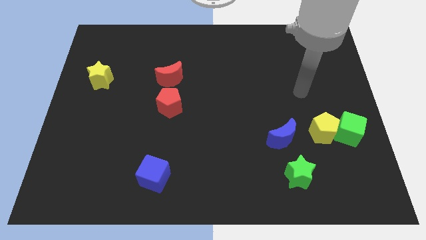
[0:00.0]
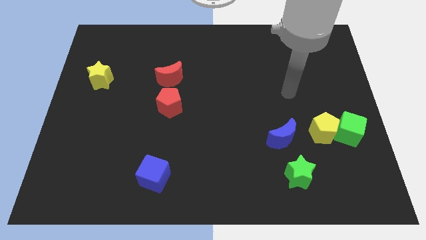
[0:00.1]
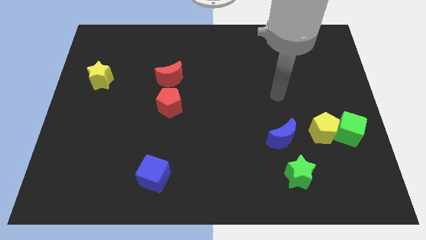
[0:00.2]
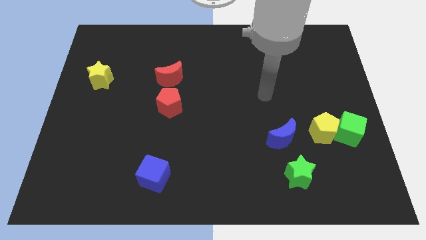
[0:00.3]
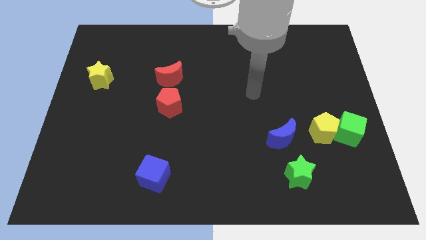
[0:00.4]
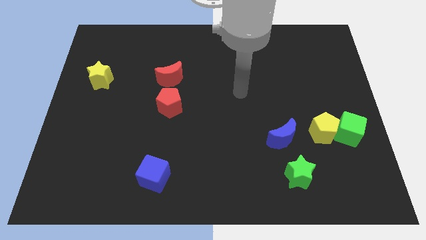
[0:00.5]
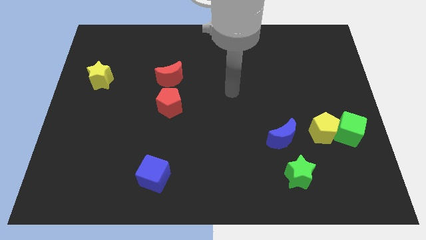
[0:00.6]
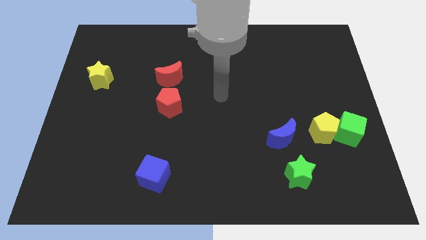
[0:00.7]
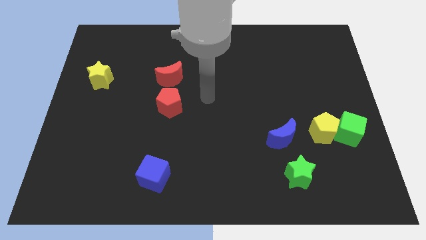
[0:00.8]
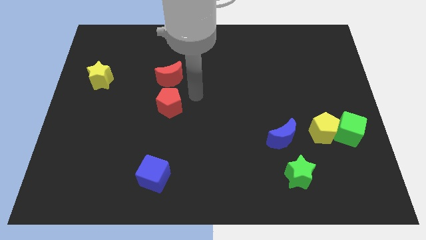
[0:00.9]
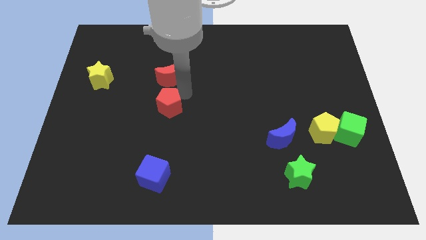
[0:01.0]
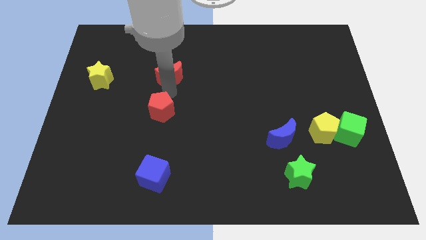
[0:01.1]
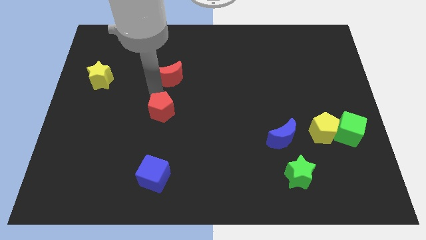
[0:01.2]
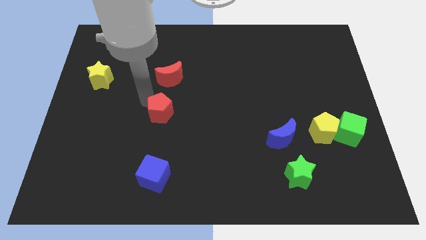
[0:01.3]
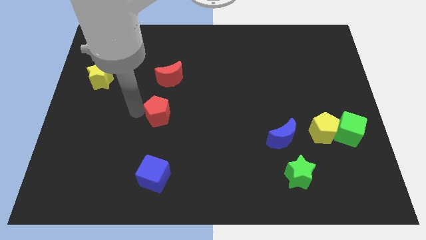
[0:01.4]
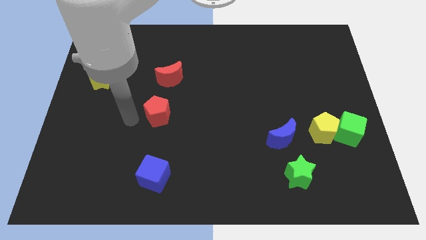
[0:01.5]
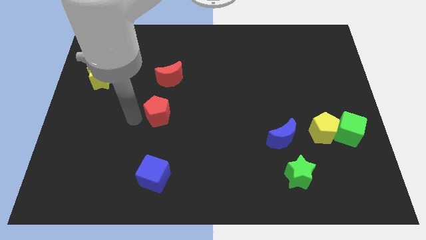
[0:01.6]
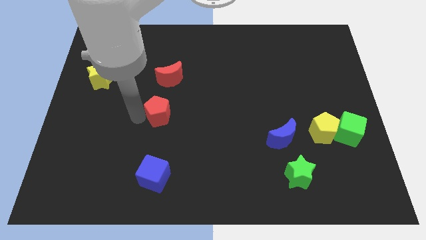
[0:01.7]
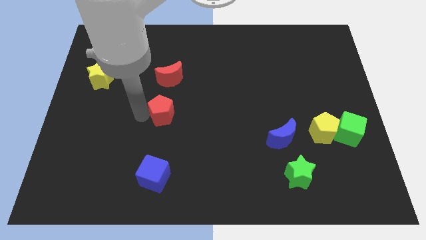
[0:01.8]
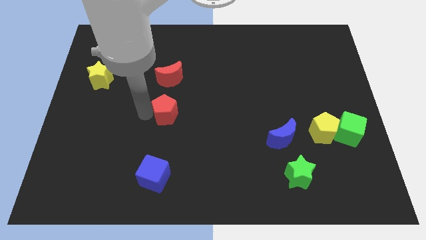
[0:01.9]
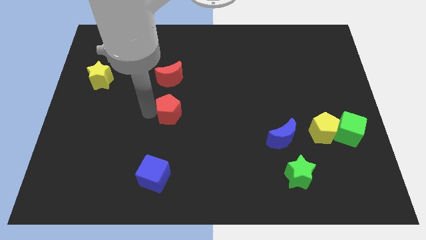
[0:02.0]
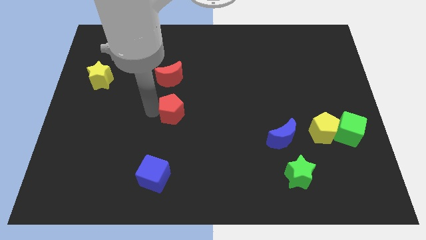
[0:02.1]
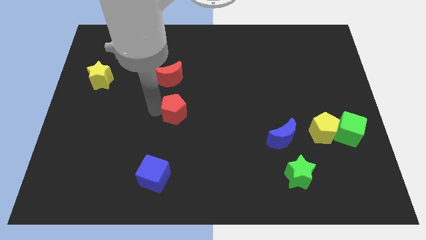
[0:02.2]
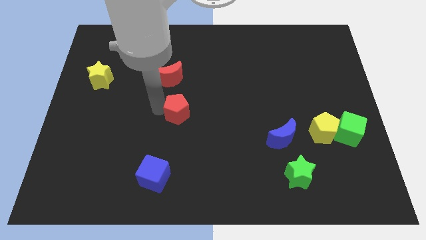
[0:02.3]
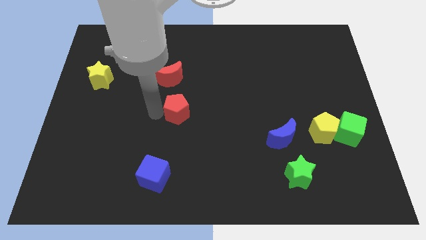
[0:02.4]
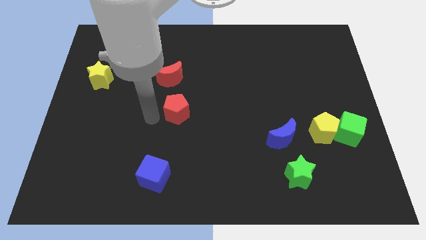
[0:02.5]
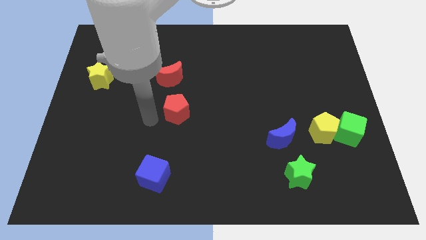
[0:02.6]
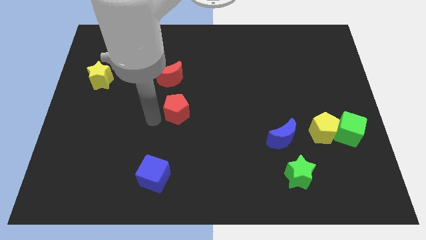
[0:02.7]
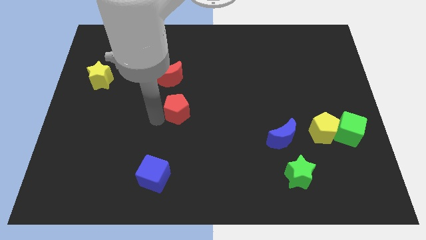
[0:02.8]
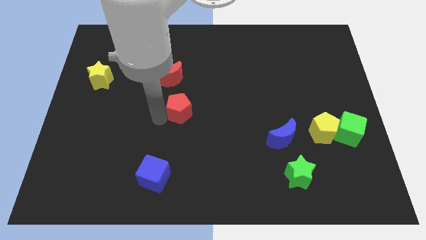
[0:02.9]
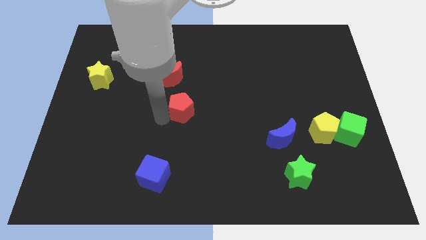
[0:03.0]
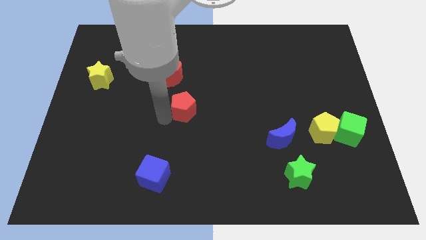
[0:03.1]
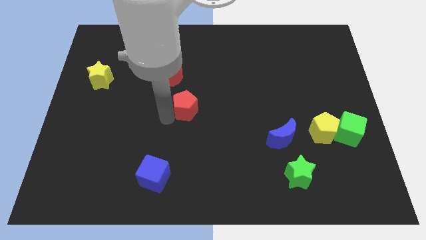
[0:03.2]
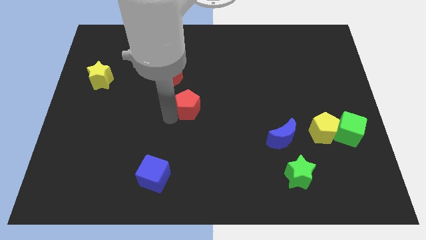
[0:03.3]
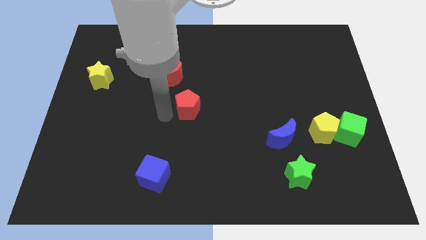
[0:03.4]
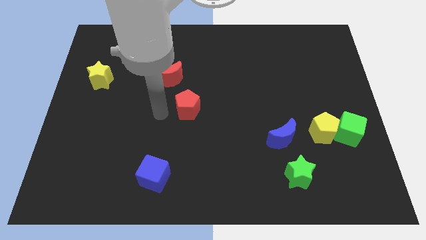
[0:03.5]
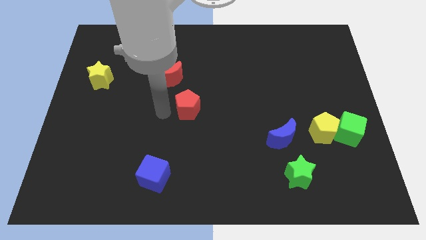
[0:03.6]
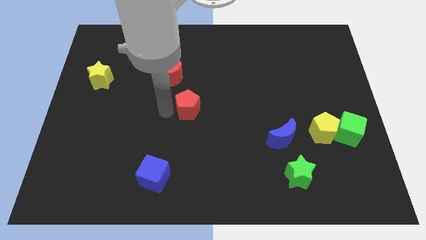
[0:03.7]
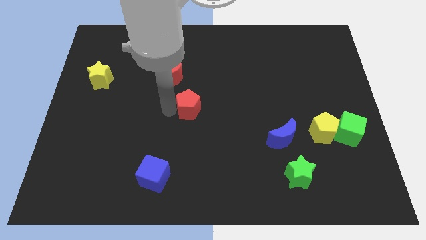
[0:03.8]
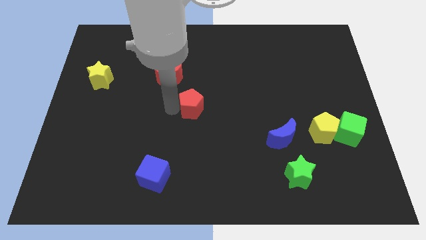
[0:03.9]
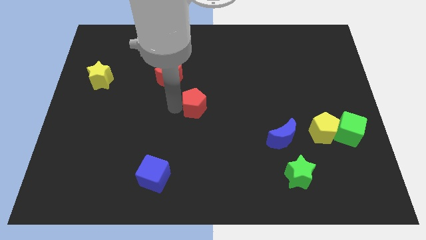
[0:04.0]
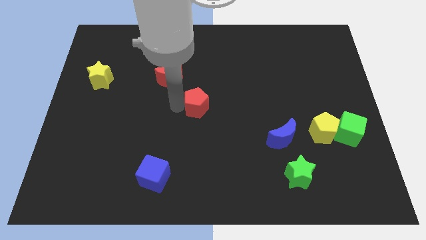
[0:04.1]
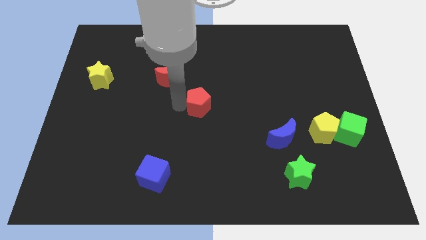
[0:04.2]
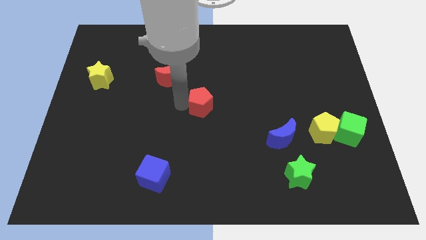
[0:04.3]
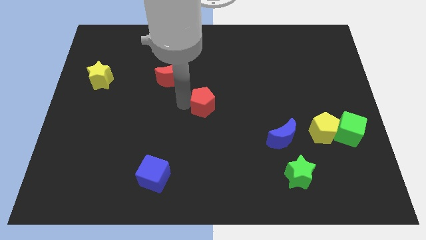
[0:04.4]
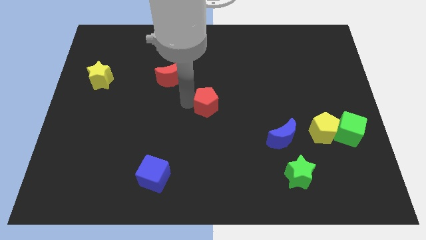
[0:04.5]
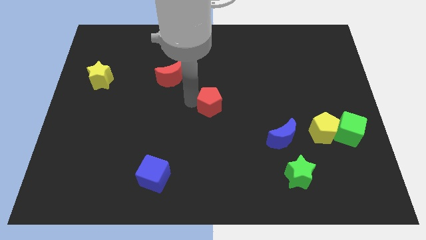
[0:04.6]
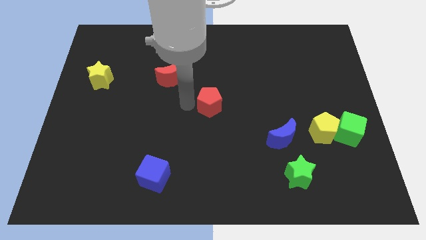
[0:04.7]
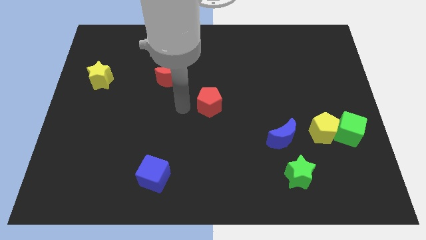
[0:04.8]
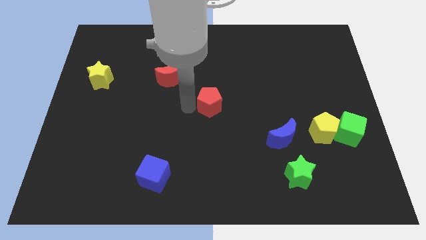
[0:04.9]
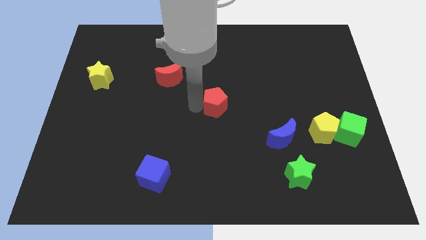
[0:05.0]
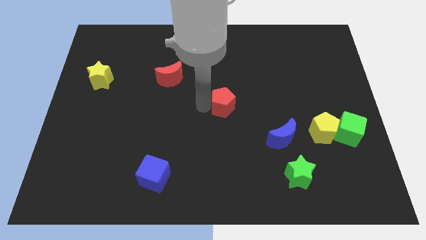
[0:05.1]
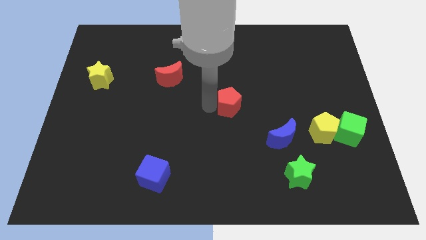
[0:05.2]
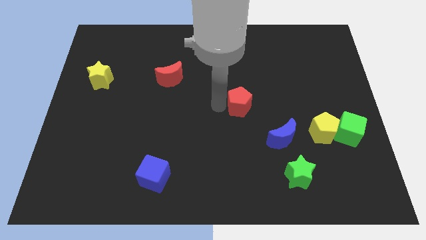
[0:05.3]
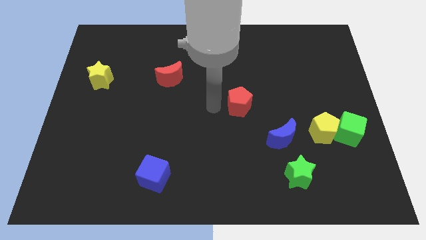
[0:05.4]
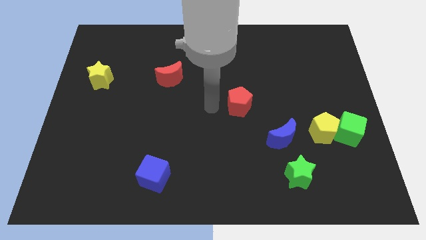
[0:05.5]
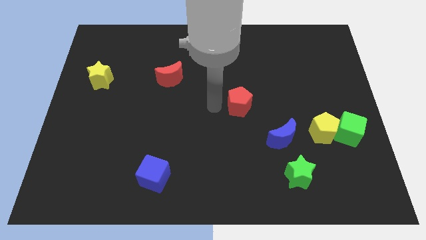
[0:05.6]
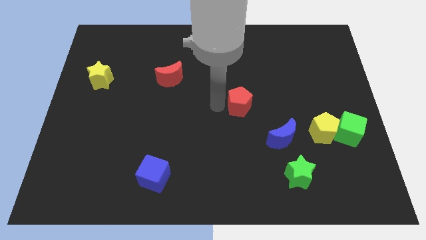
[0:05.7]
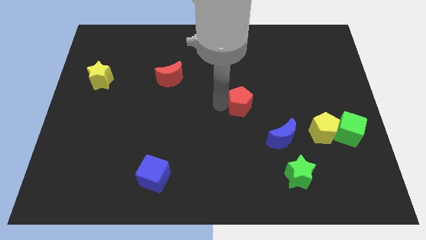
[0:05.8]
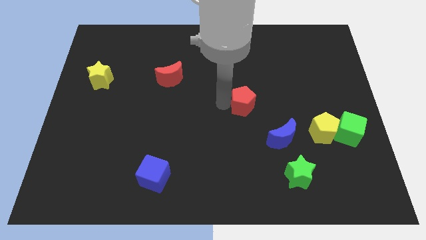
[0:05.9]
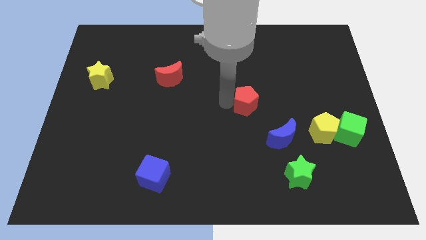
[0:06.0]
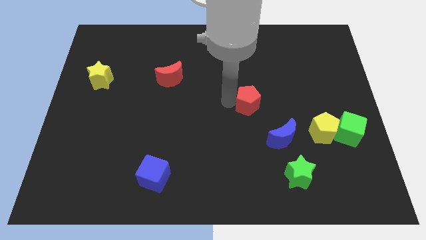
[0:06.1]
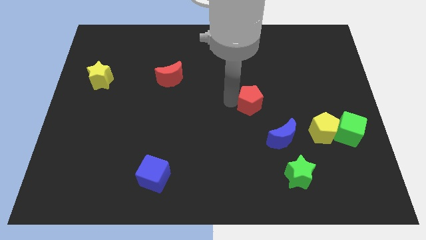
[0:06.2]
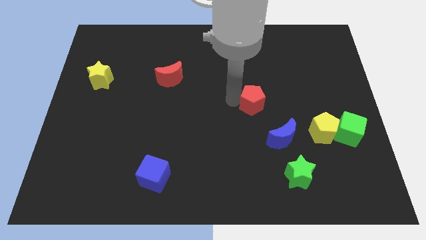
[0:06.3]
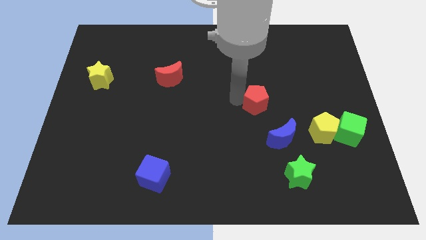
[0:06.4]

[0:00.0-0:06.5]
move the red pentagon right

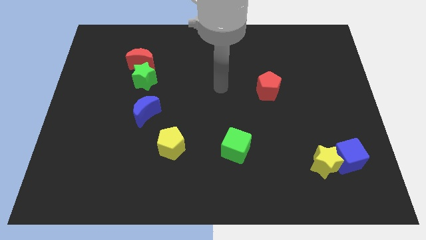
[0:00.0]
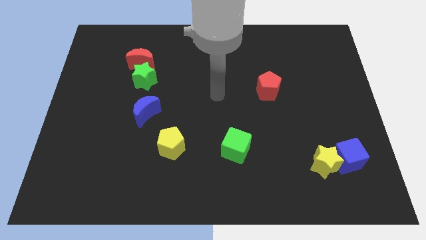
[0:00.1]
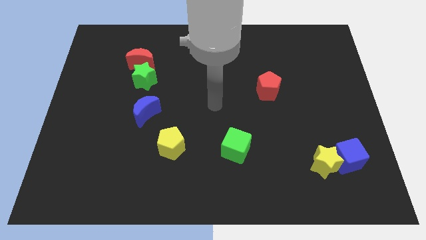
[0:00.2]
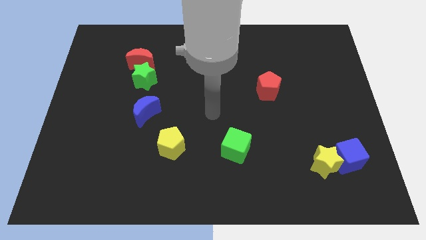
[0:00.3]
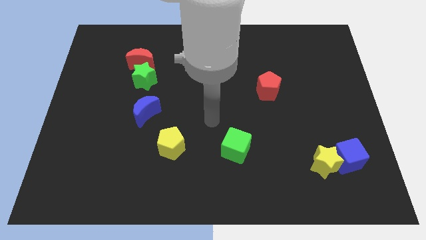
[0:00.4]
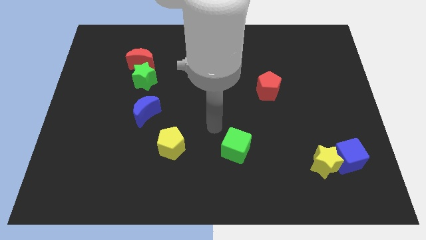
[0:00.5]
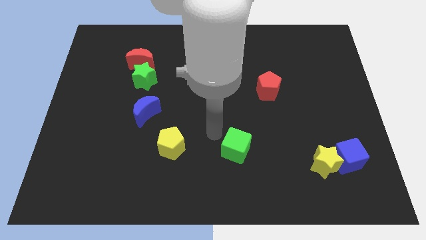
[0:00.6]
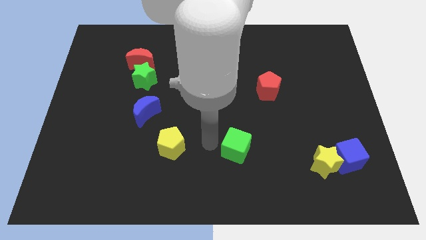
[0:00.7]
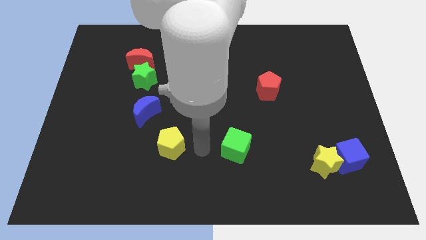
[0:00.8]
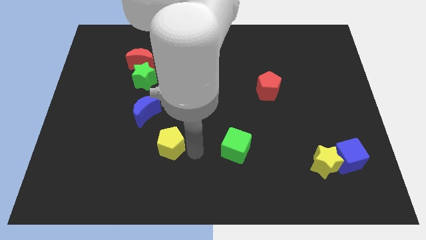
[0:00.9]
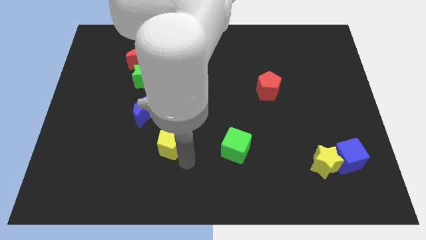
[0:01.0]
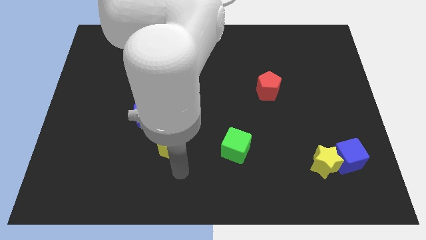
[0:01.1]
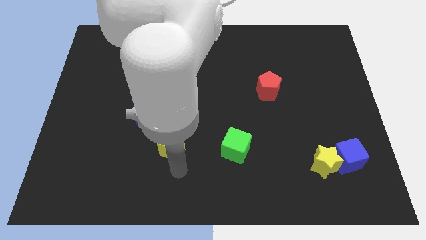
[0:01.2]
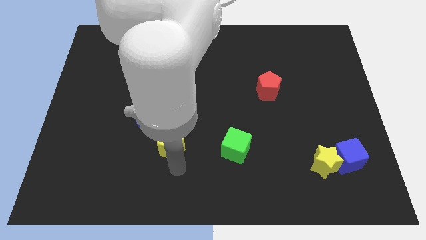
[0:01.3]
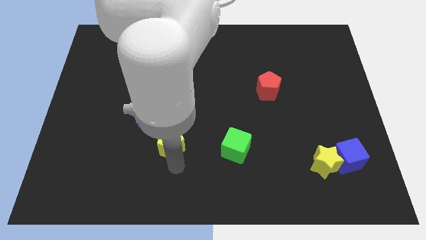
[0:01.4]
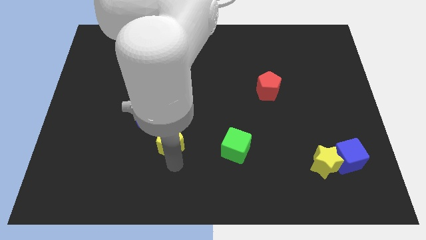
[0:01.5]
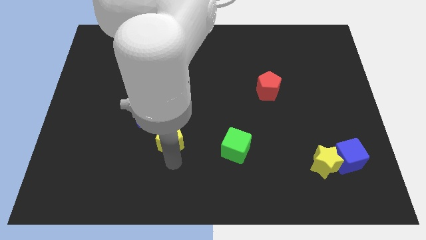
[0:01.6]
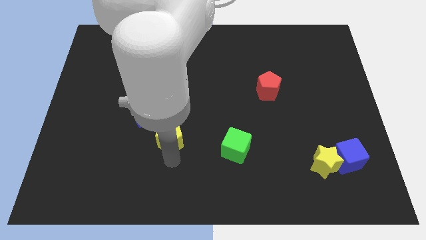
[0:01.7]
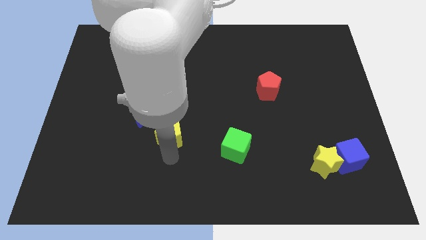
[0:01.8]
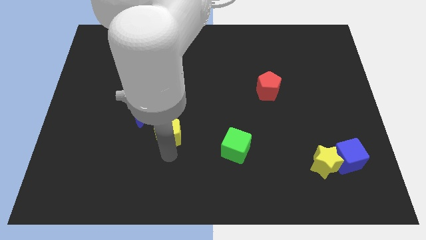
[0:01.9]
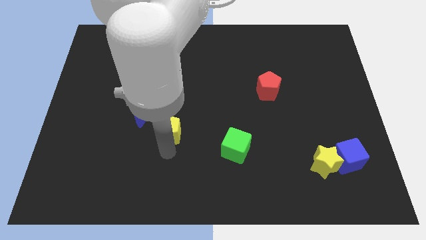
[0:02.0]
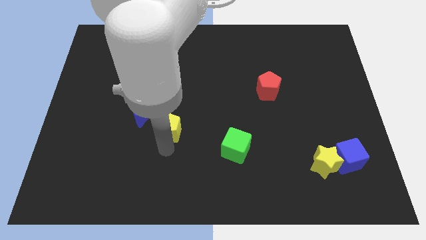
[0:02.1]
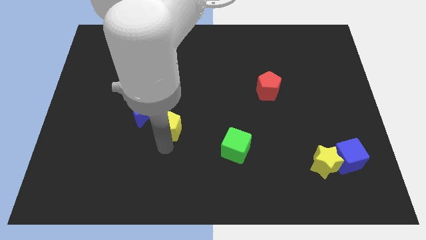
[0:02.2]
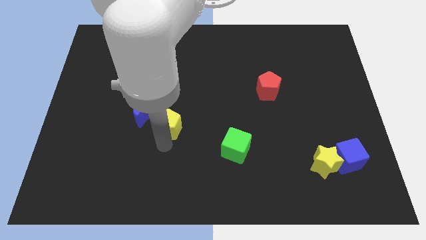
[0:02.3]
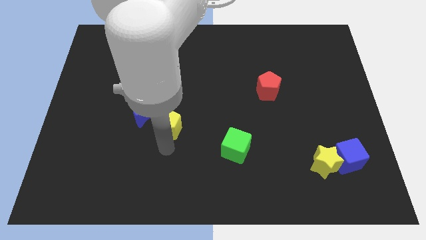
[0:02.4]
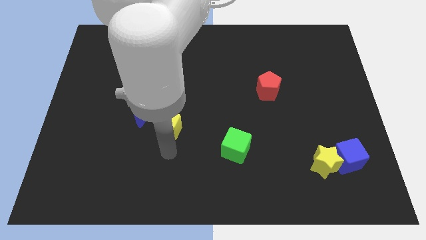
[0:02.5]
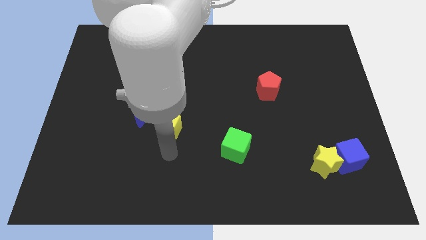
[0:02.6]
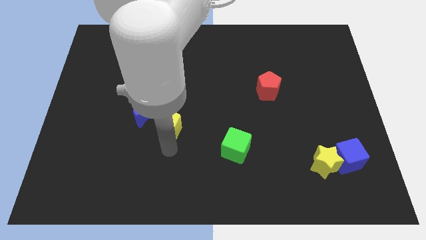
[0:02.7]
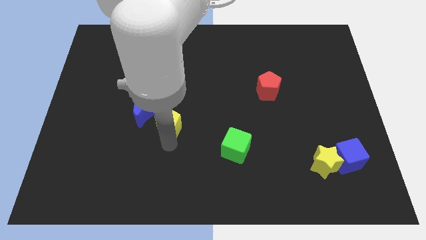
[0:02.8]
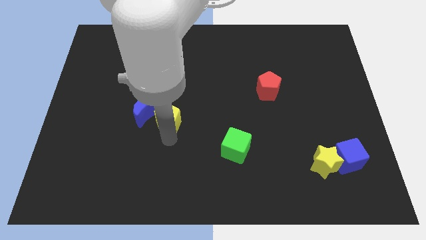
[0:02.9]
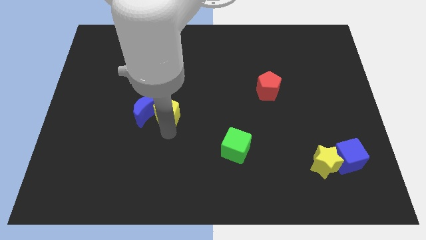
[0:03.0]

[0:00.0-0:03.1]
slightly slide the yellow pentagon upwards
